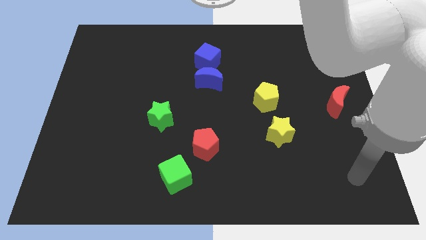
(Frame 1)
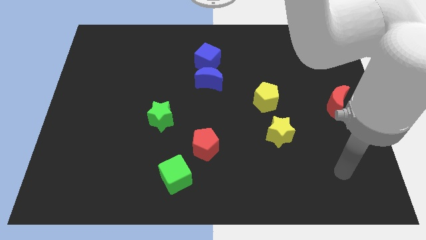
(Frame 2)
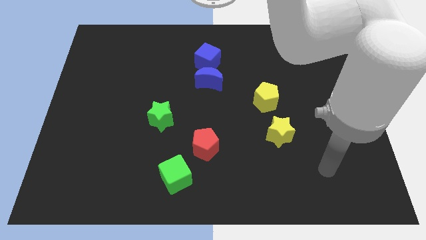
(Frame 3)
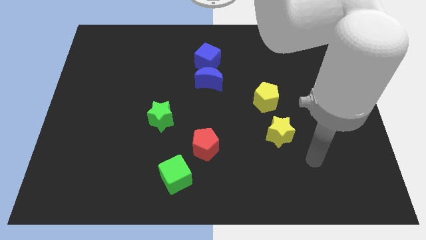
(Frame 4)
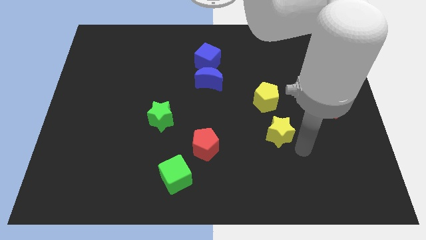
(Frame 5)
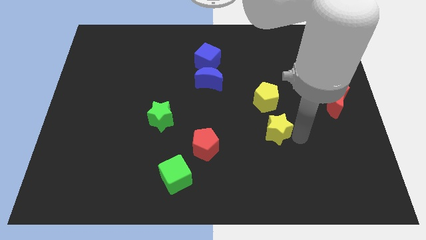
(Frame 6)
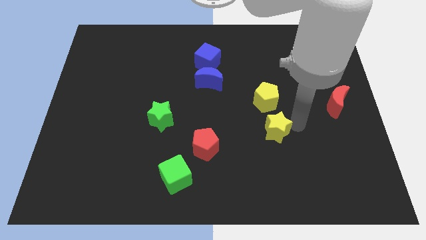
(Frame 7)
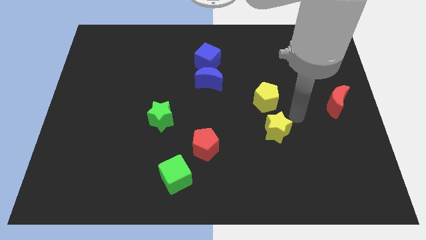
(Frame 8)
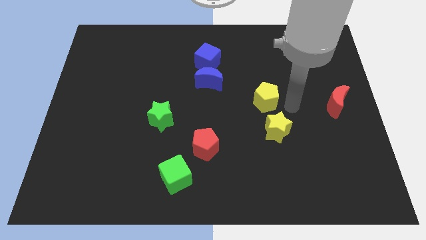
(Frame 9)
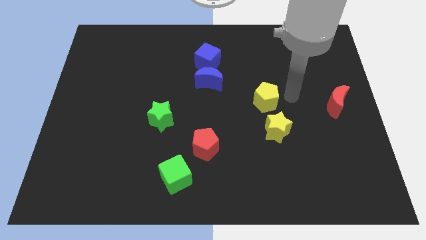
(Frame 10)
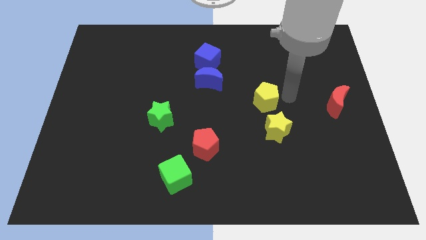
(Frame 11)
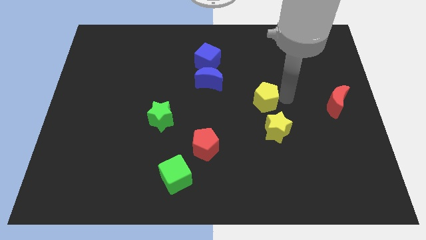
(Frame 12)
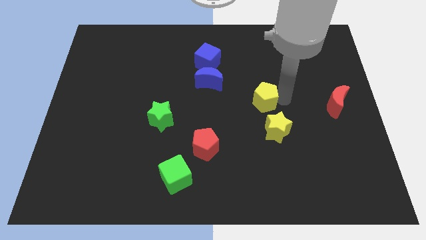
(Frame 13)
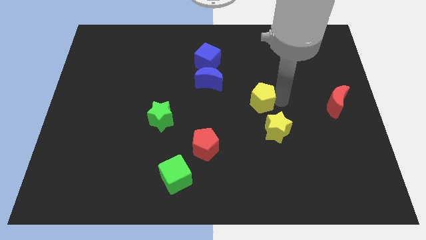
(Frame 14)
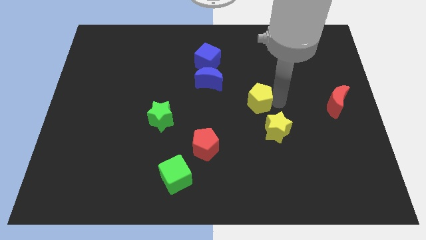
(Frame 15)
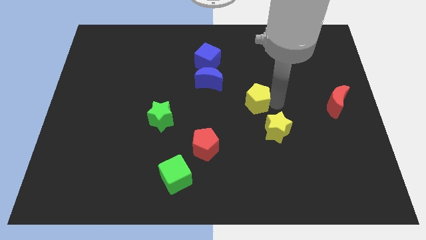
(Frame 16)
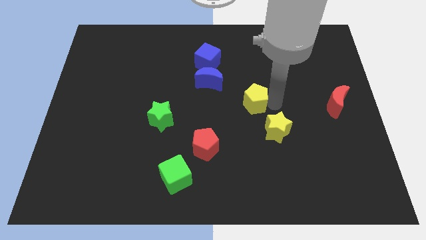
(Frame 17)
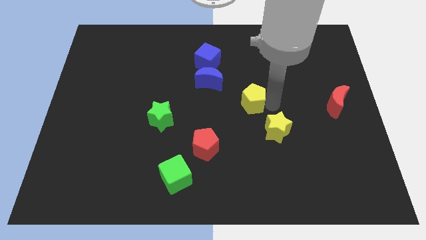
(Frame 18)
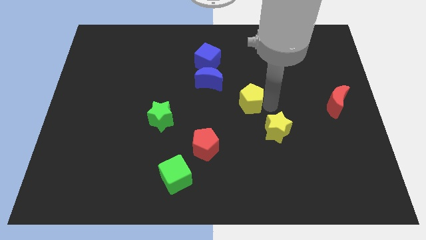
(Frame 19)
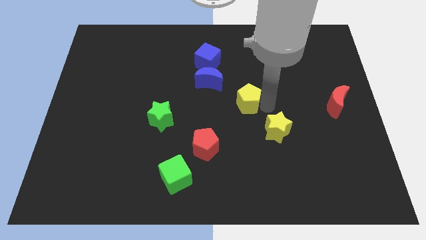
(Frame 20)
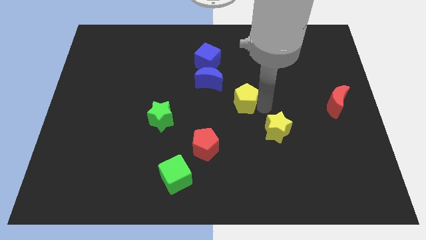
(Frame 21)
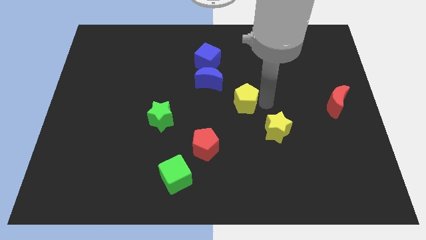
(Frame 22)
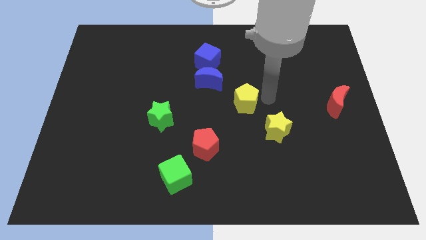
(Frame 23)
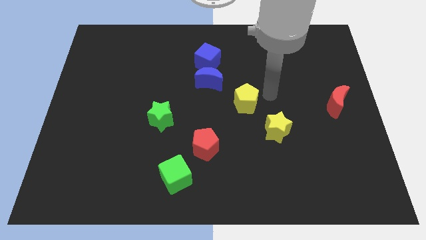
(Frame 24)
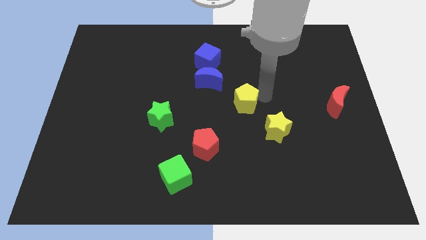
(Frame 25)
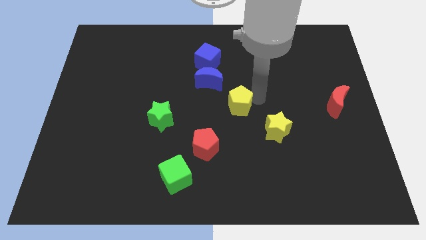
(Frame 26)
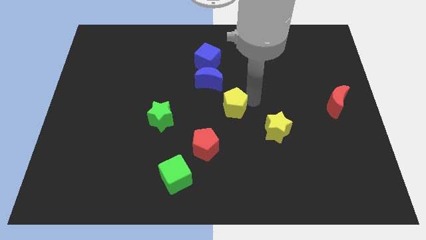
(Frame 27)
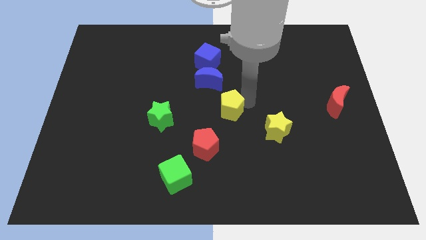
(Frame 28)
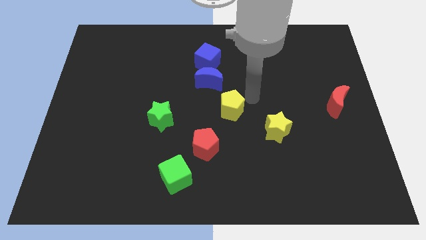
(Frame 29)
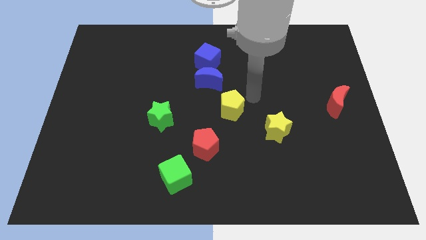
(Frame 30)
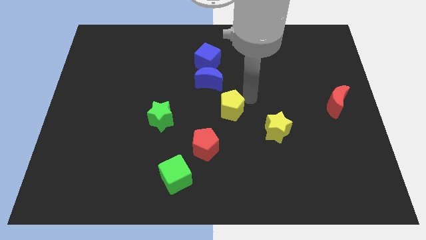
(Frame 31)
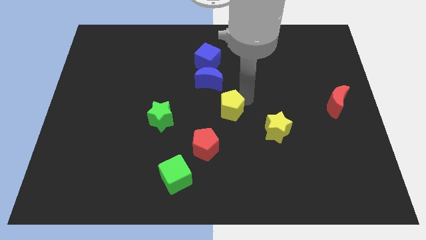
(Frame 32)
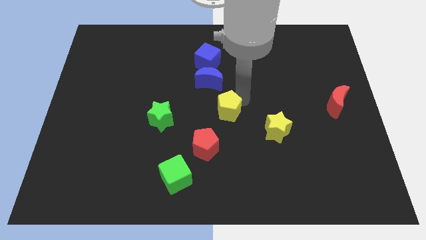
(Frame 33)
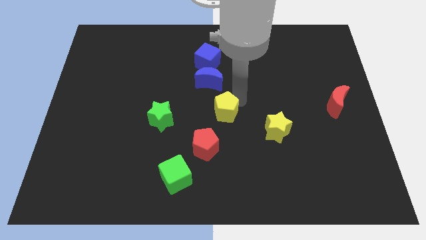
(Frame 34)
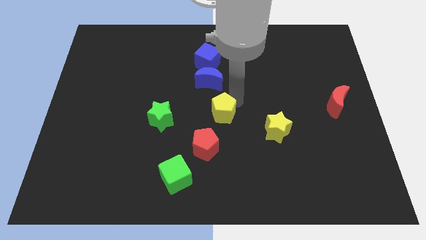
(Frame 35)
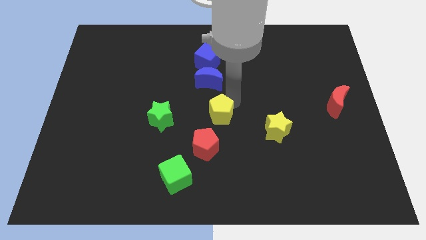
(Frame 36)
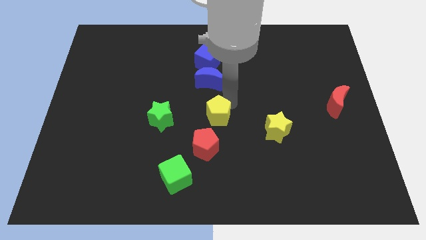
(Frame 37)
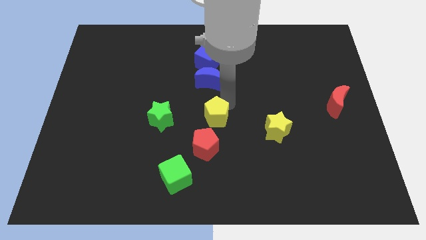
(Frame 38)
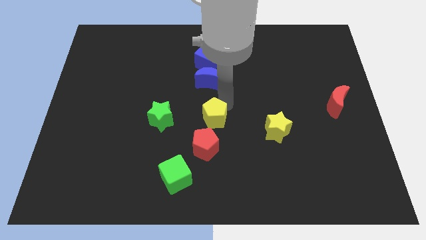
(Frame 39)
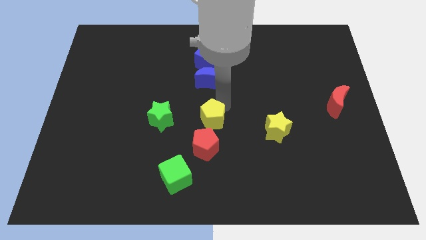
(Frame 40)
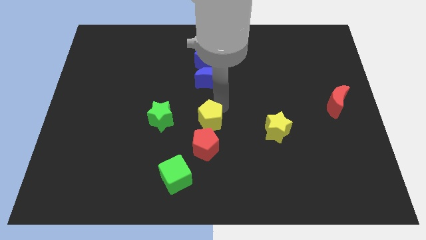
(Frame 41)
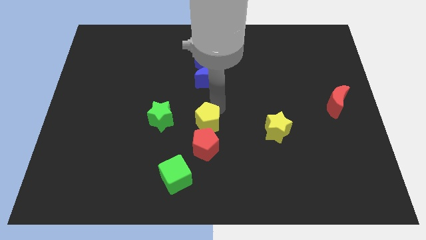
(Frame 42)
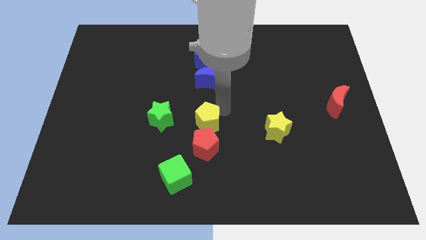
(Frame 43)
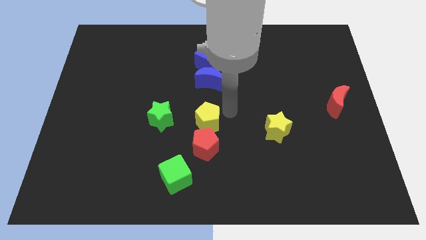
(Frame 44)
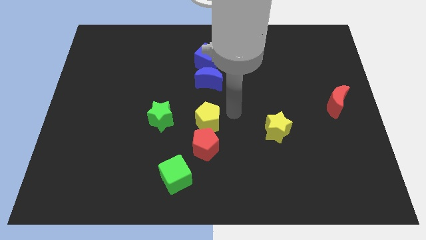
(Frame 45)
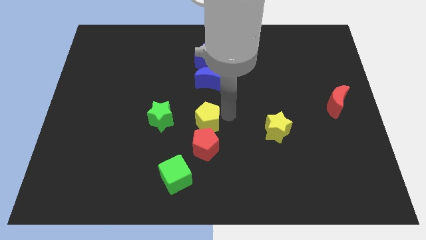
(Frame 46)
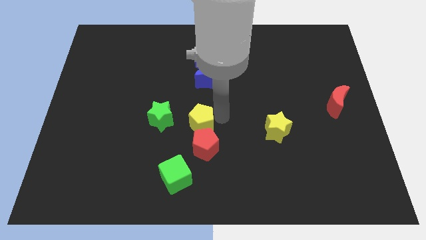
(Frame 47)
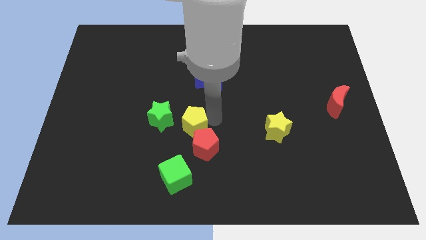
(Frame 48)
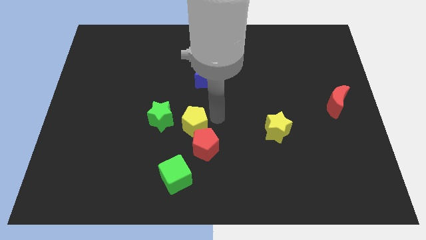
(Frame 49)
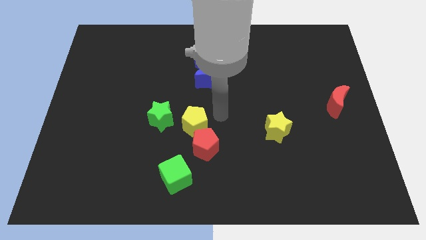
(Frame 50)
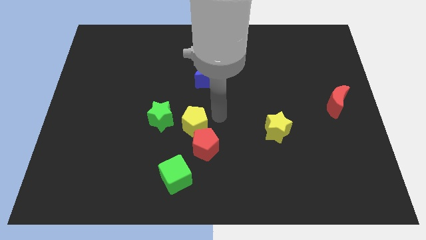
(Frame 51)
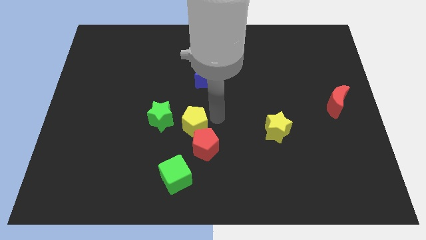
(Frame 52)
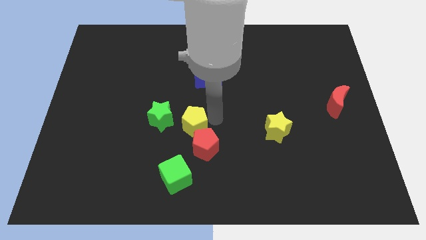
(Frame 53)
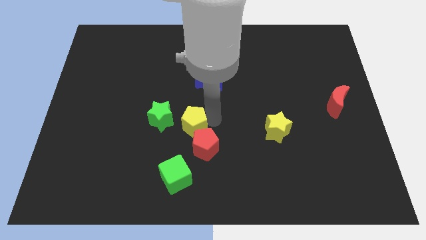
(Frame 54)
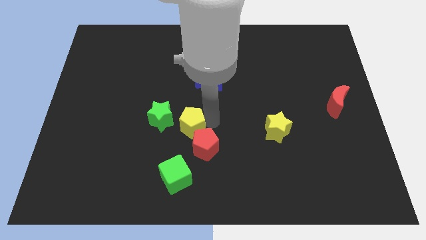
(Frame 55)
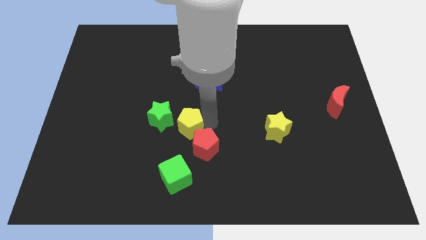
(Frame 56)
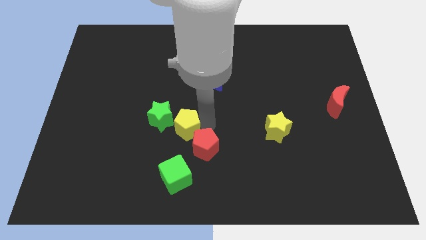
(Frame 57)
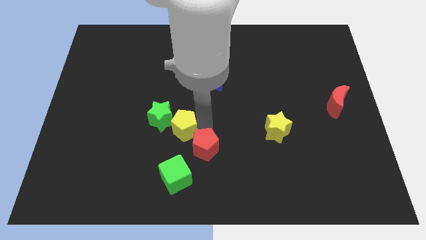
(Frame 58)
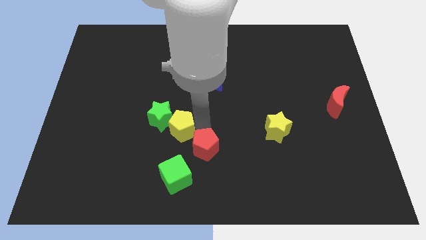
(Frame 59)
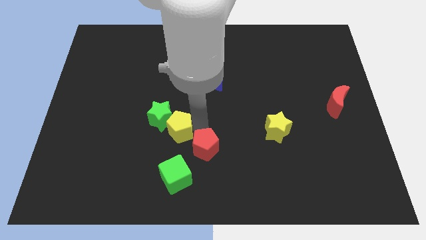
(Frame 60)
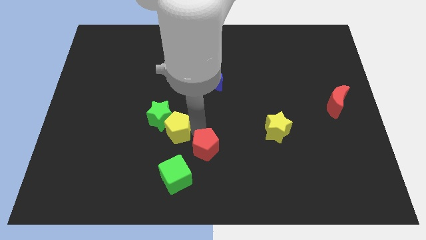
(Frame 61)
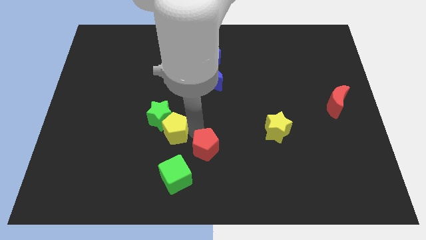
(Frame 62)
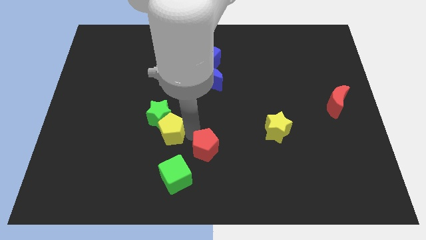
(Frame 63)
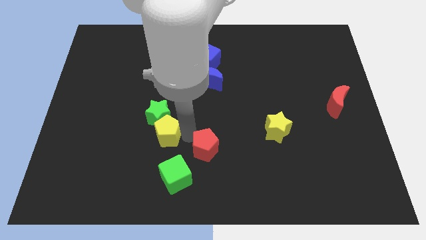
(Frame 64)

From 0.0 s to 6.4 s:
push the yellow pentagon to the bottom left of the green star

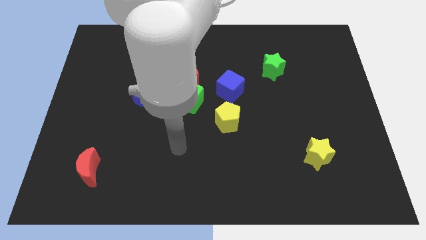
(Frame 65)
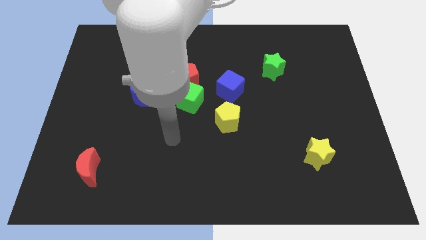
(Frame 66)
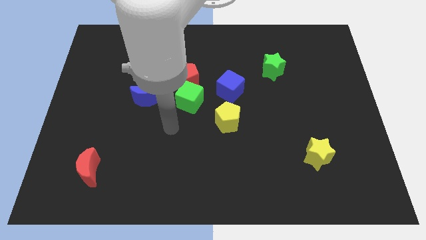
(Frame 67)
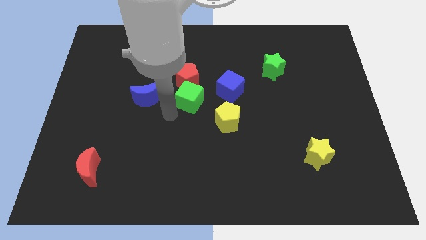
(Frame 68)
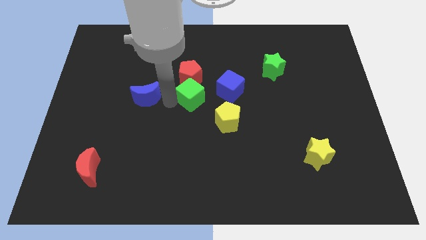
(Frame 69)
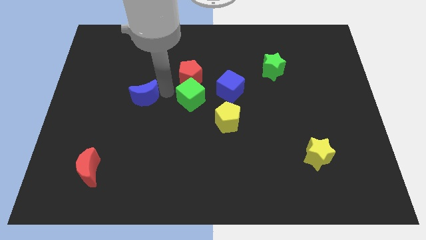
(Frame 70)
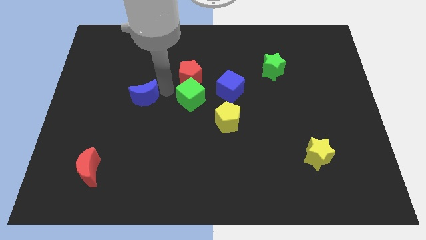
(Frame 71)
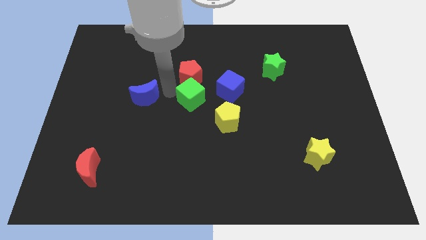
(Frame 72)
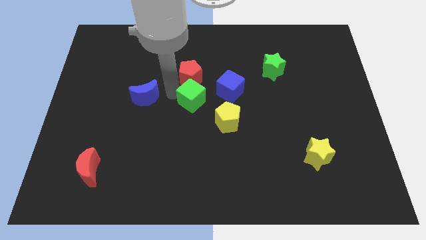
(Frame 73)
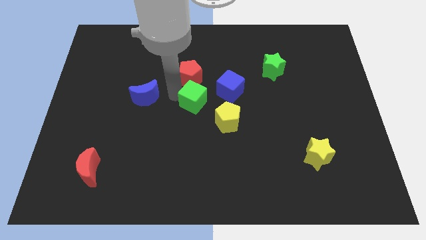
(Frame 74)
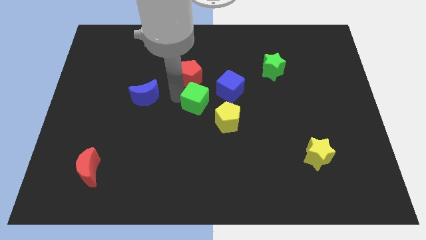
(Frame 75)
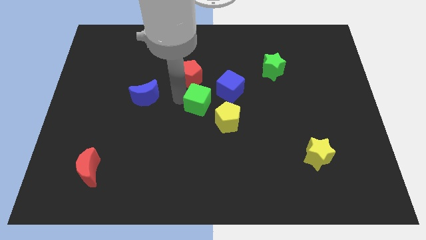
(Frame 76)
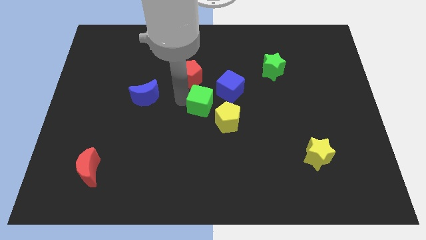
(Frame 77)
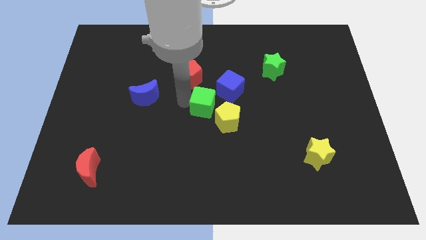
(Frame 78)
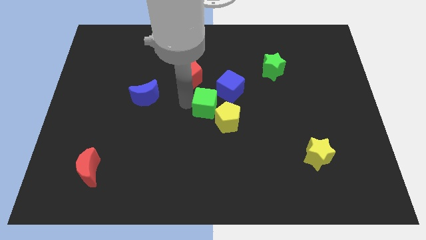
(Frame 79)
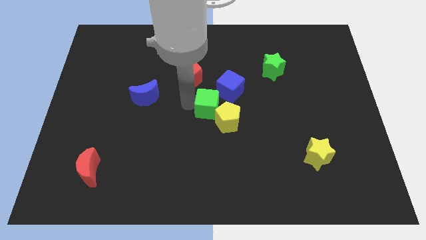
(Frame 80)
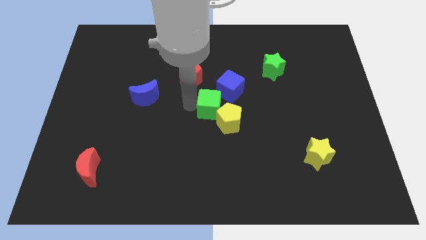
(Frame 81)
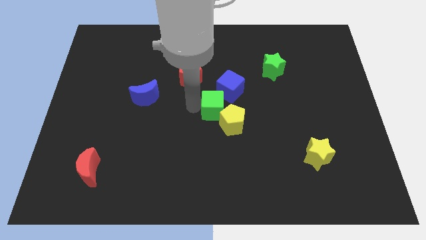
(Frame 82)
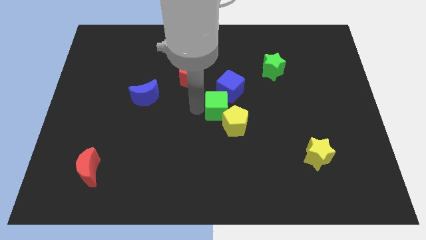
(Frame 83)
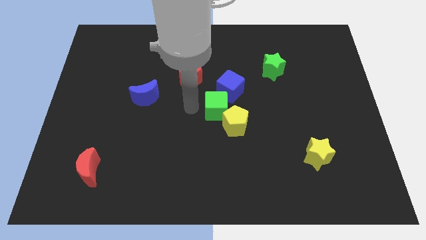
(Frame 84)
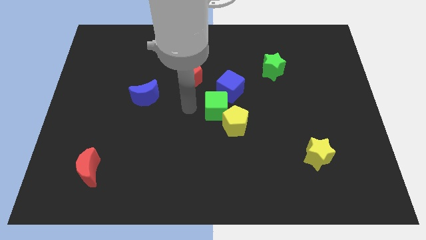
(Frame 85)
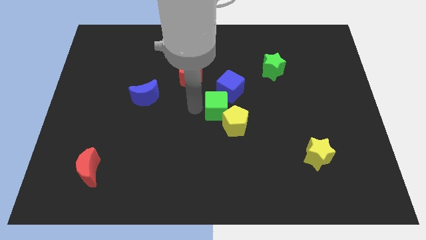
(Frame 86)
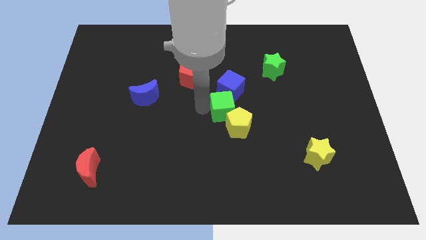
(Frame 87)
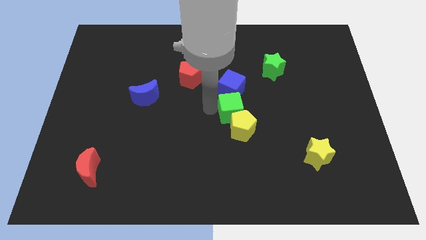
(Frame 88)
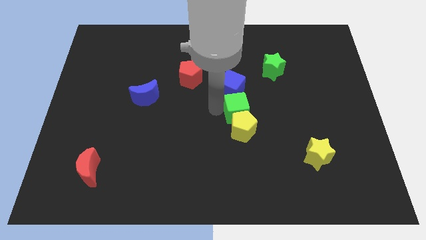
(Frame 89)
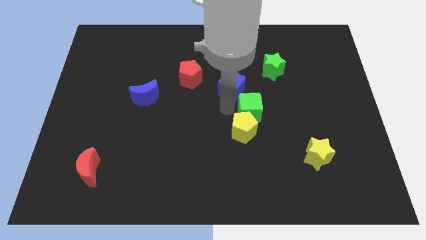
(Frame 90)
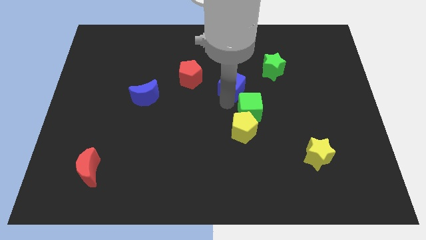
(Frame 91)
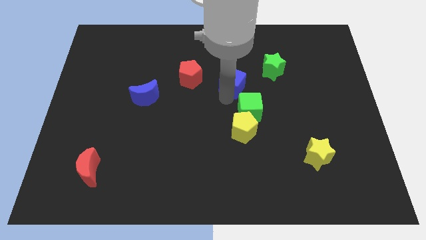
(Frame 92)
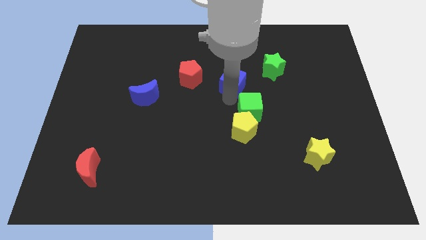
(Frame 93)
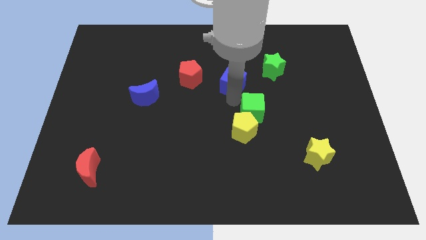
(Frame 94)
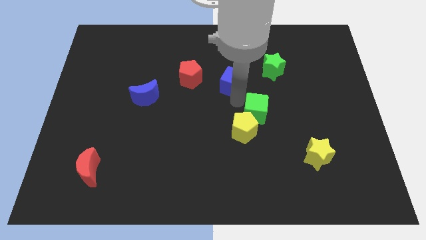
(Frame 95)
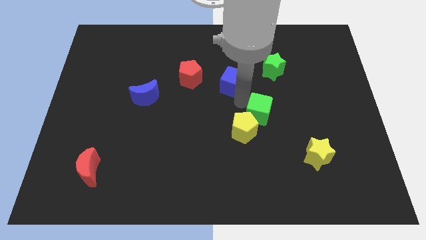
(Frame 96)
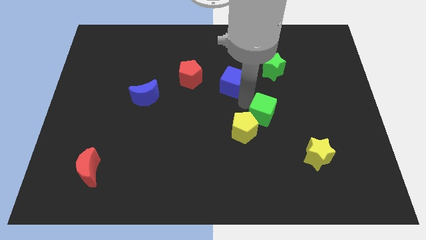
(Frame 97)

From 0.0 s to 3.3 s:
move the green cube right of the yellow pentagon
